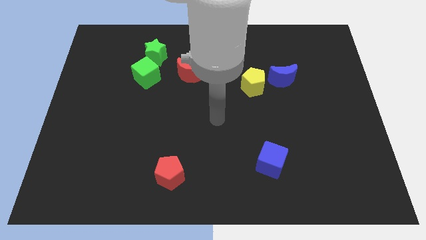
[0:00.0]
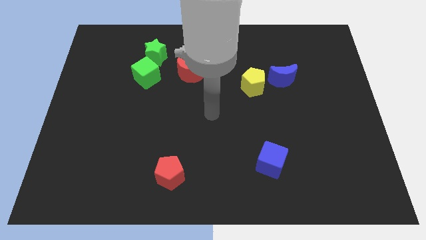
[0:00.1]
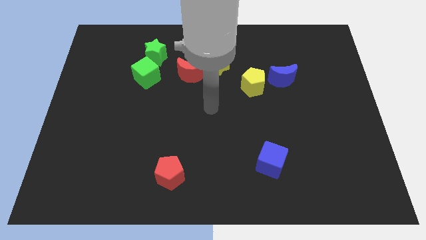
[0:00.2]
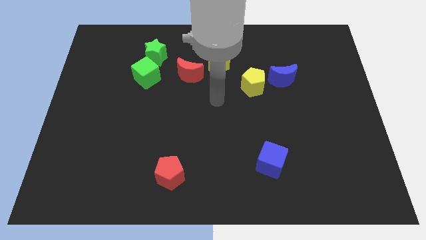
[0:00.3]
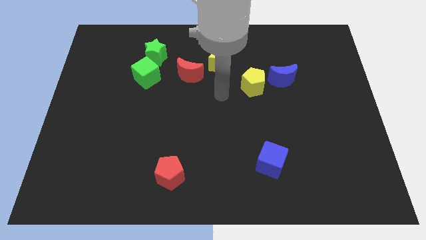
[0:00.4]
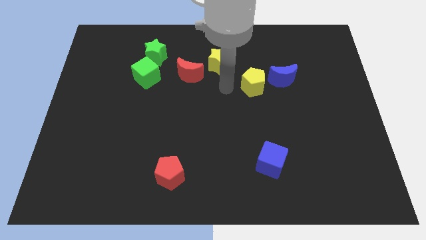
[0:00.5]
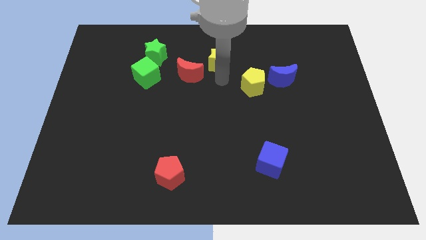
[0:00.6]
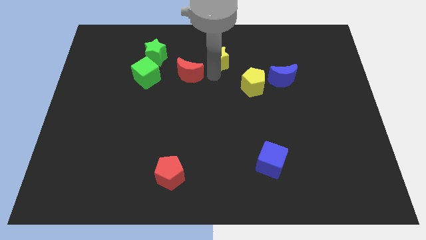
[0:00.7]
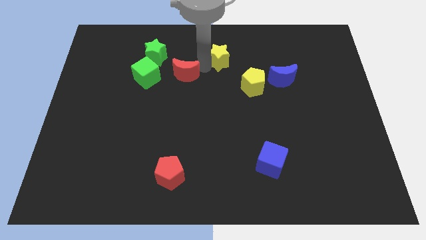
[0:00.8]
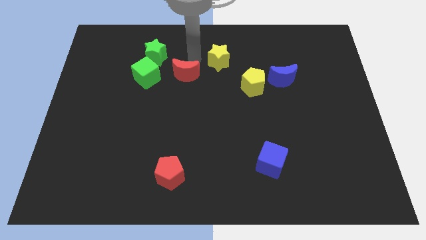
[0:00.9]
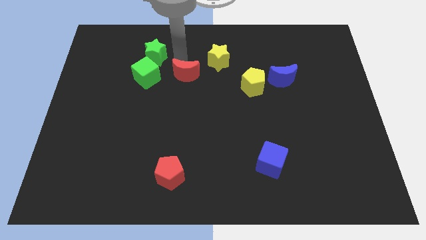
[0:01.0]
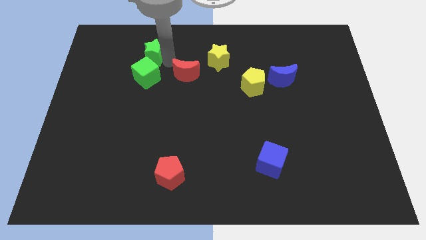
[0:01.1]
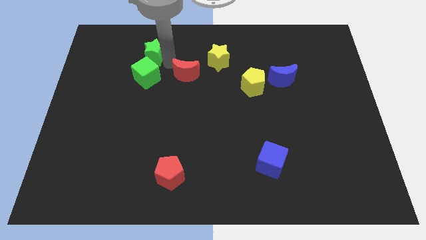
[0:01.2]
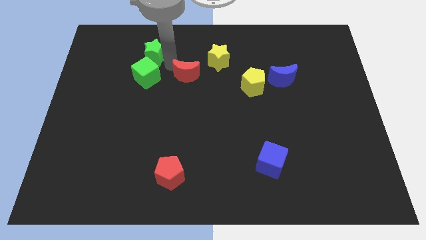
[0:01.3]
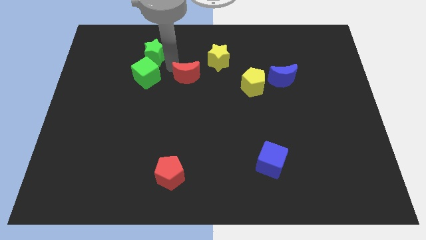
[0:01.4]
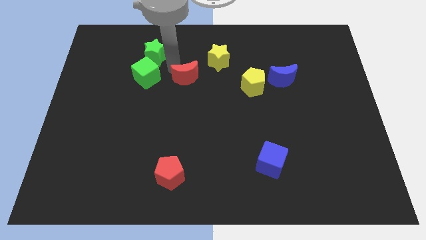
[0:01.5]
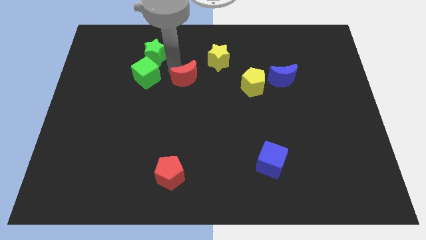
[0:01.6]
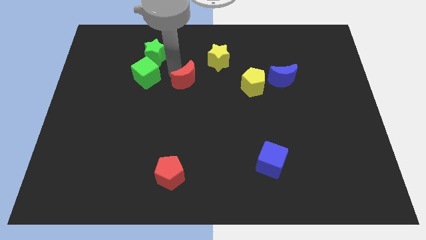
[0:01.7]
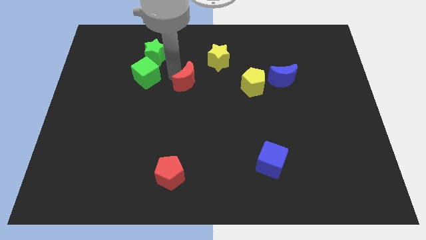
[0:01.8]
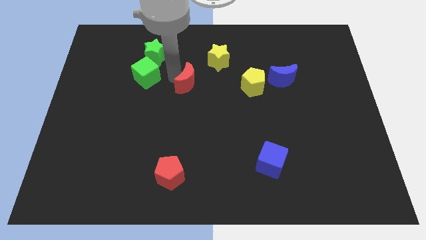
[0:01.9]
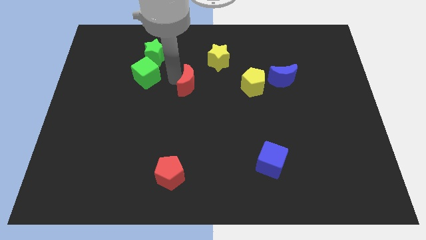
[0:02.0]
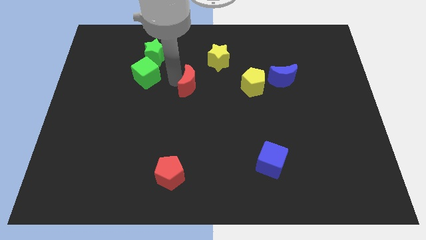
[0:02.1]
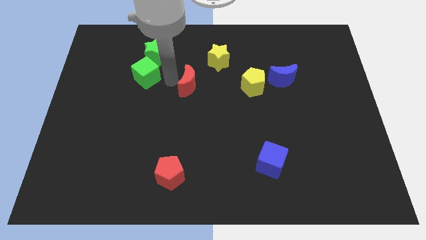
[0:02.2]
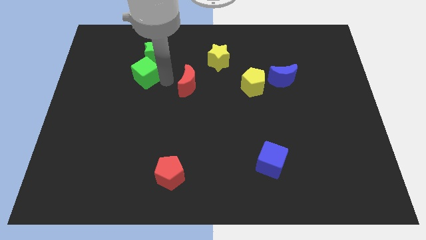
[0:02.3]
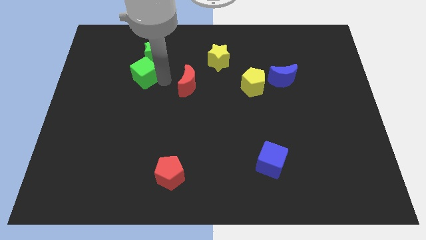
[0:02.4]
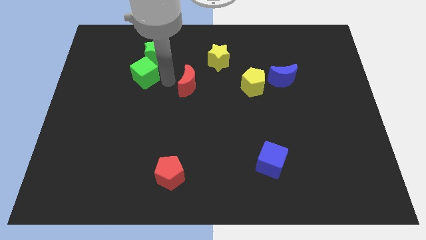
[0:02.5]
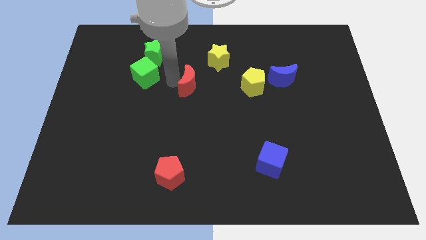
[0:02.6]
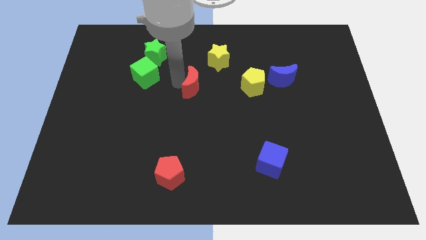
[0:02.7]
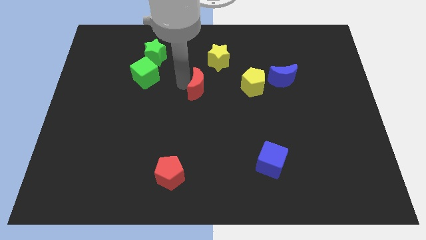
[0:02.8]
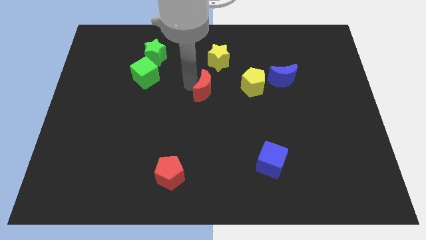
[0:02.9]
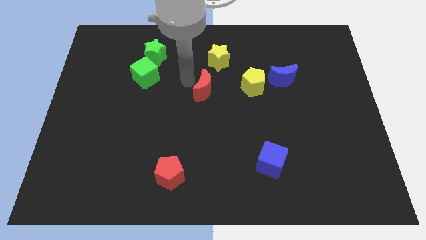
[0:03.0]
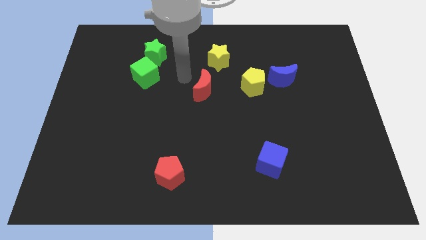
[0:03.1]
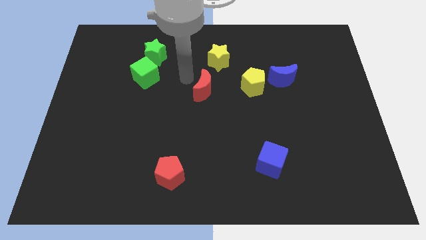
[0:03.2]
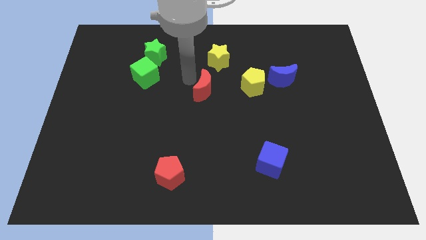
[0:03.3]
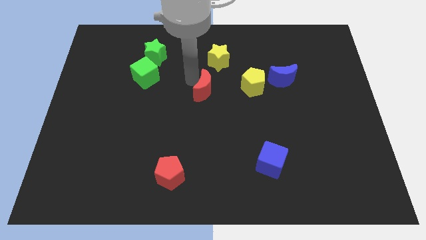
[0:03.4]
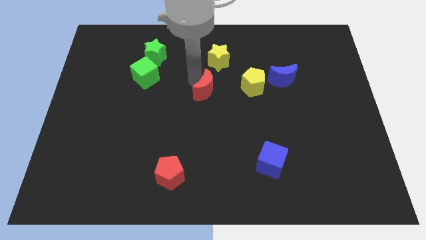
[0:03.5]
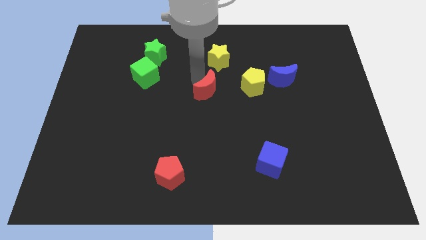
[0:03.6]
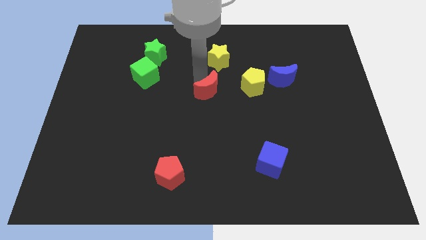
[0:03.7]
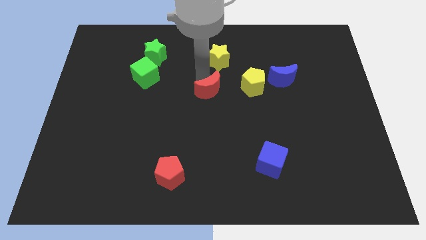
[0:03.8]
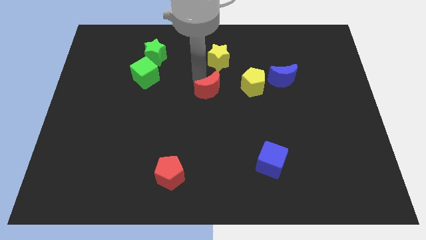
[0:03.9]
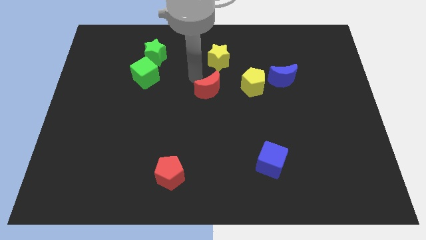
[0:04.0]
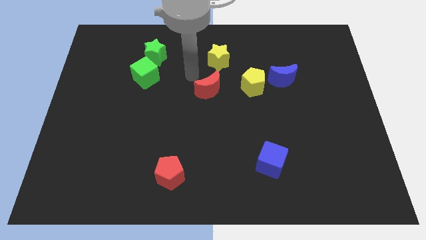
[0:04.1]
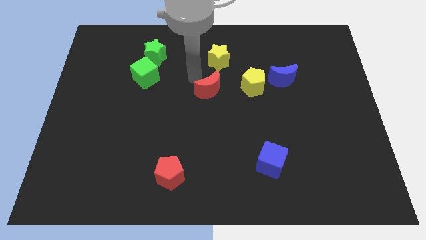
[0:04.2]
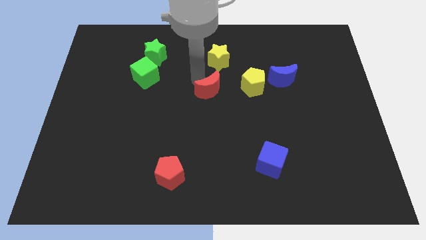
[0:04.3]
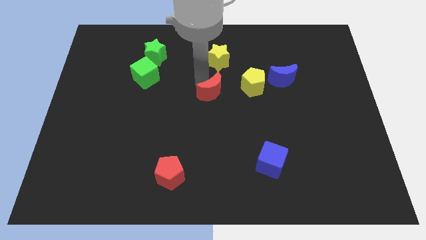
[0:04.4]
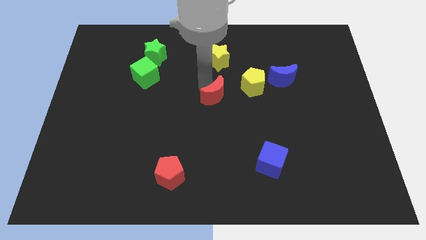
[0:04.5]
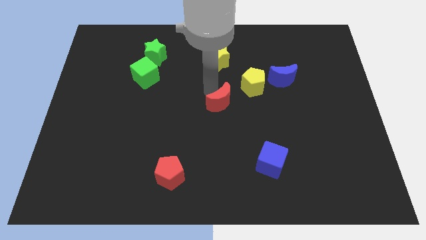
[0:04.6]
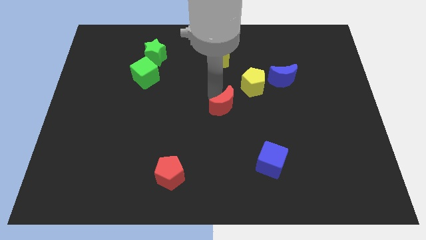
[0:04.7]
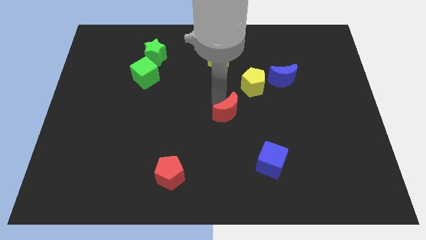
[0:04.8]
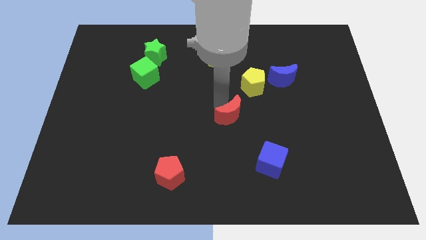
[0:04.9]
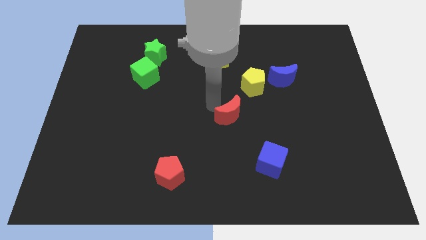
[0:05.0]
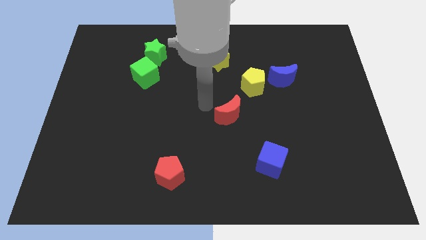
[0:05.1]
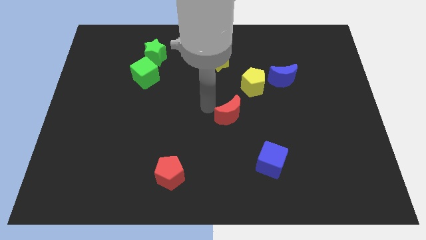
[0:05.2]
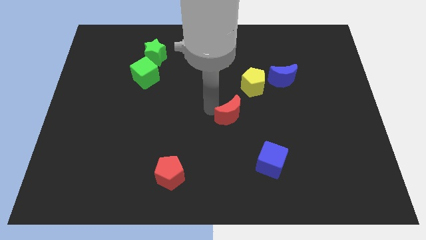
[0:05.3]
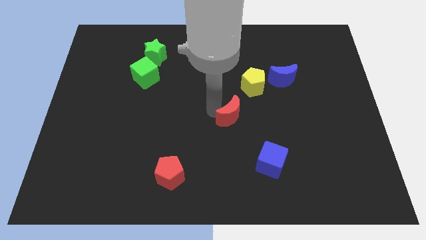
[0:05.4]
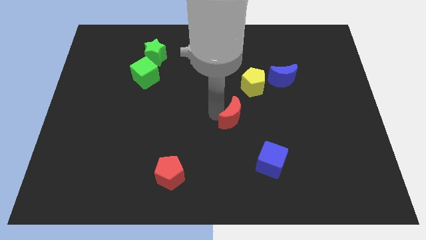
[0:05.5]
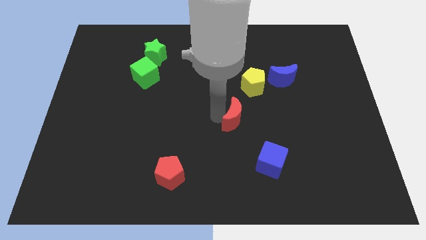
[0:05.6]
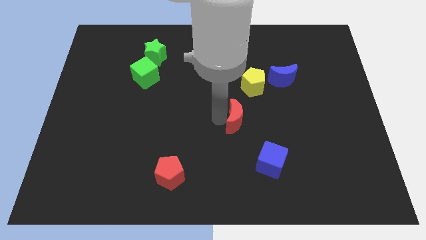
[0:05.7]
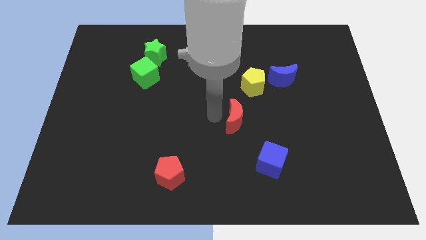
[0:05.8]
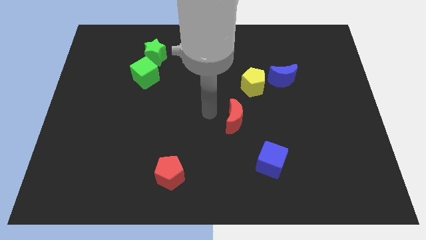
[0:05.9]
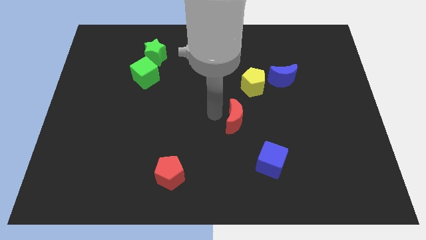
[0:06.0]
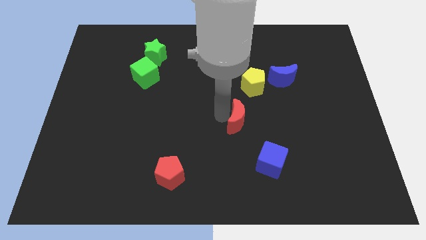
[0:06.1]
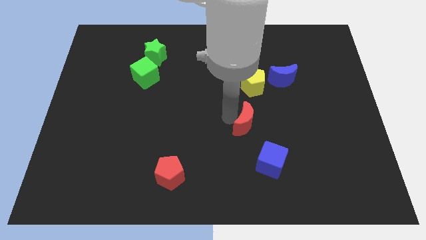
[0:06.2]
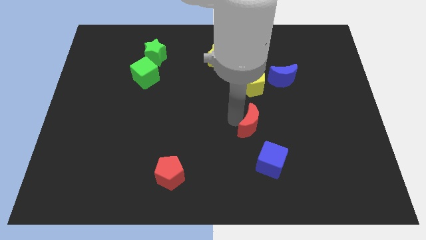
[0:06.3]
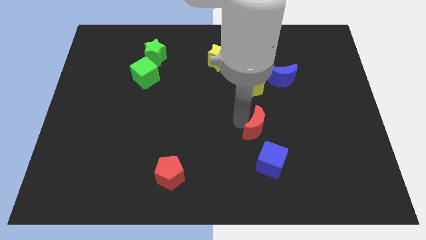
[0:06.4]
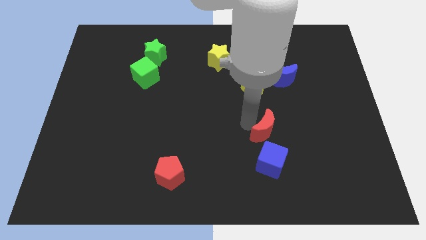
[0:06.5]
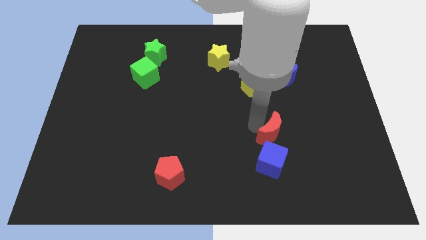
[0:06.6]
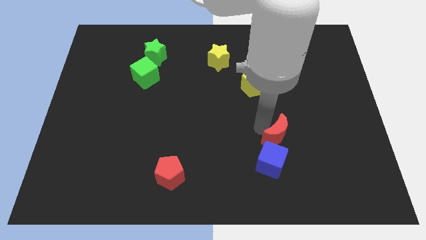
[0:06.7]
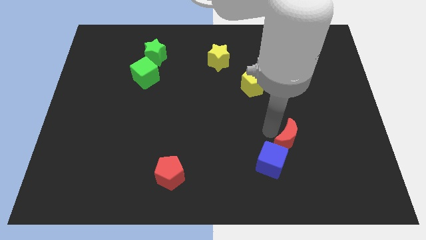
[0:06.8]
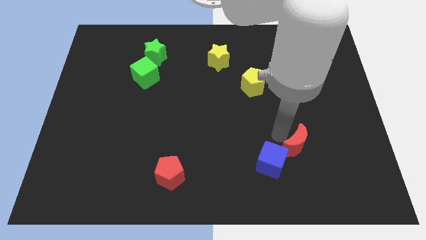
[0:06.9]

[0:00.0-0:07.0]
put the red moon right of the blue cube
